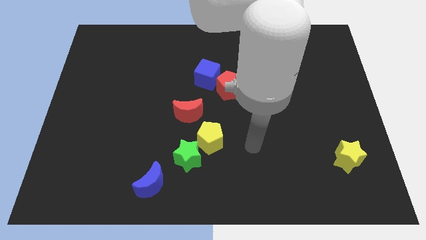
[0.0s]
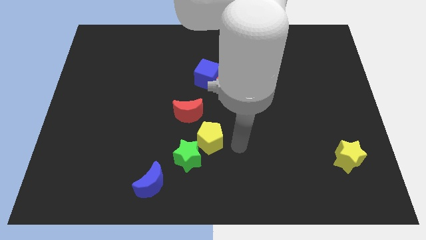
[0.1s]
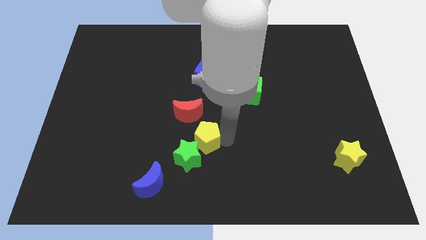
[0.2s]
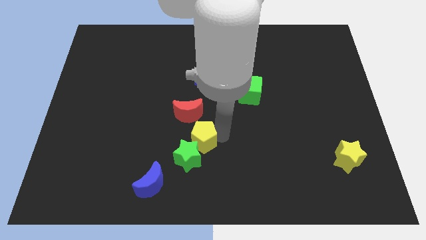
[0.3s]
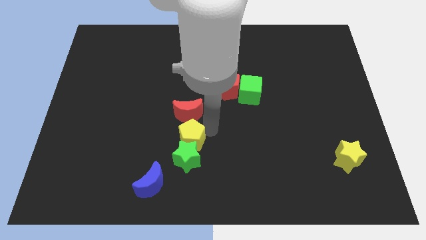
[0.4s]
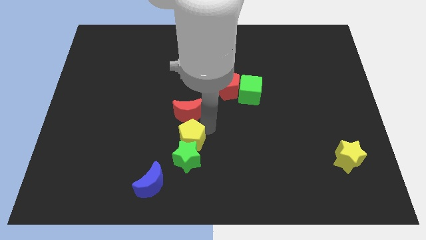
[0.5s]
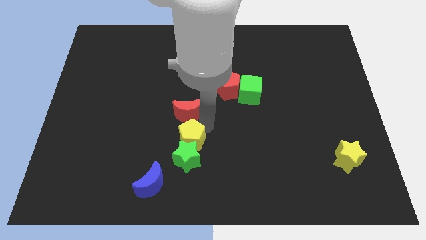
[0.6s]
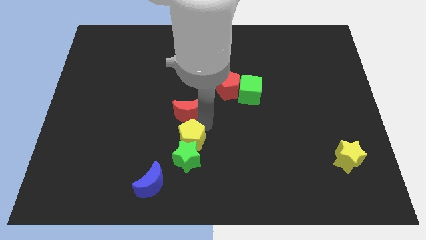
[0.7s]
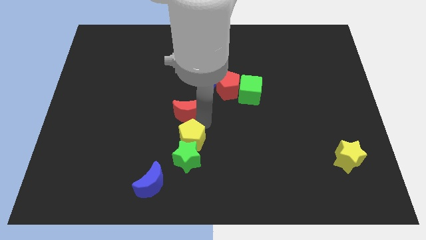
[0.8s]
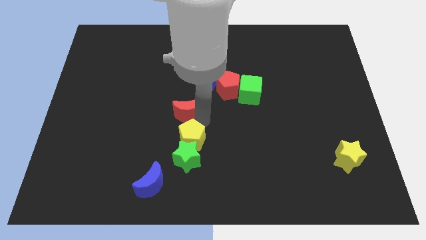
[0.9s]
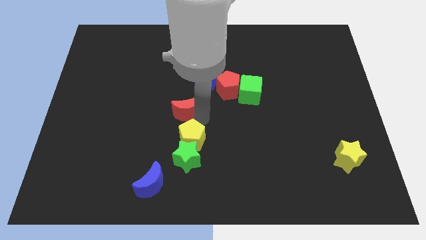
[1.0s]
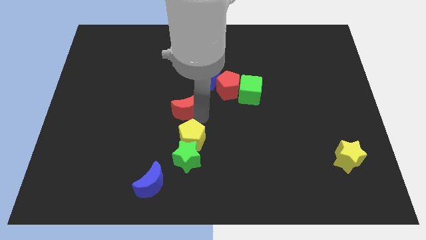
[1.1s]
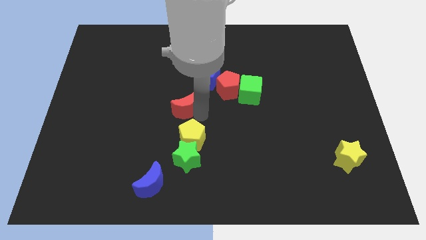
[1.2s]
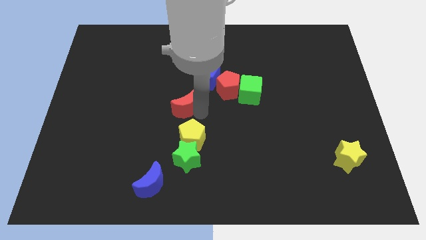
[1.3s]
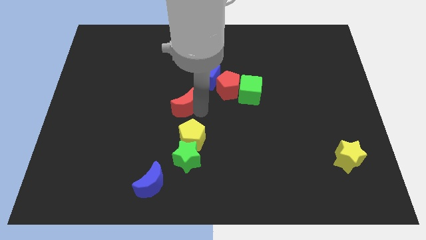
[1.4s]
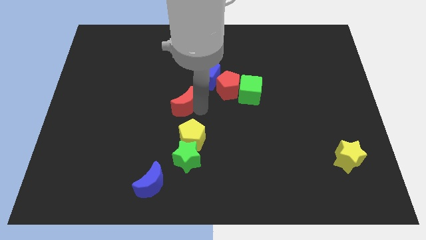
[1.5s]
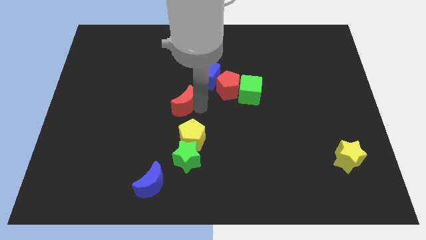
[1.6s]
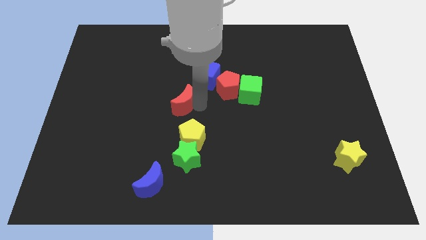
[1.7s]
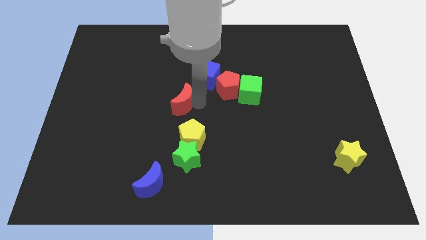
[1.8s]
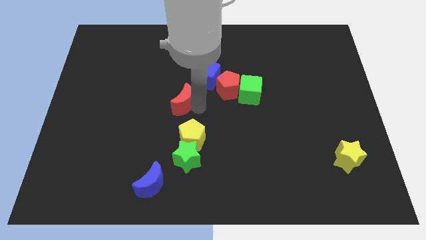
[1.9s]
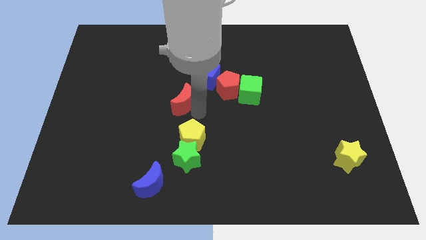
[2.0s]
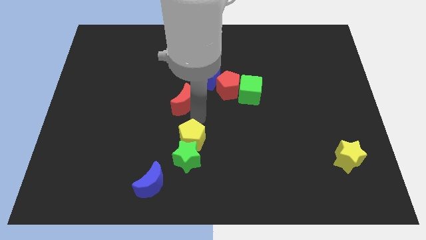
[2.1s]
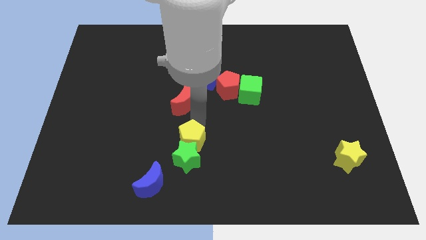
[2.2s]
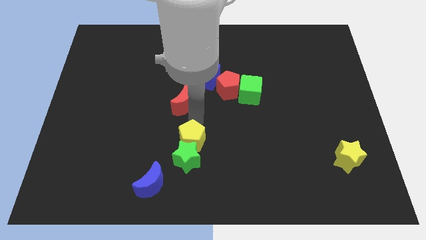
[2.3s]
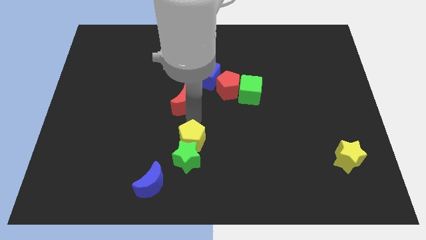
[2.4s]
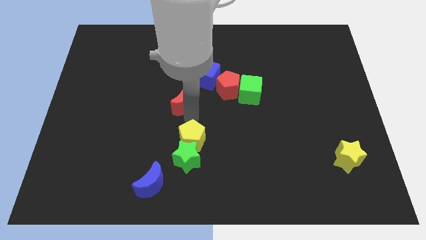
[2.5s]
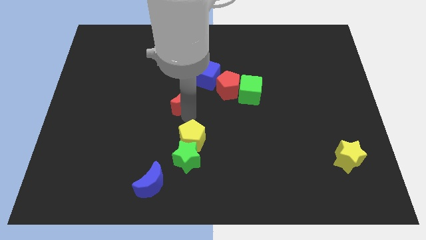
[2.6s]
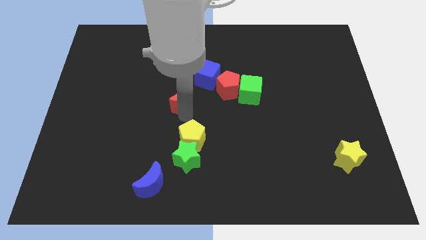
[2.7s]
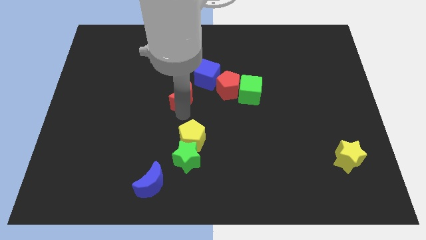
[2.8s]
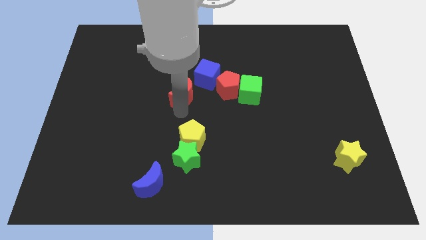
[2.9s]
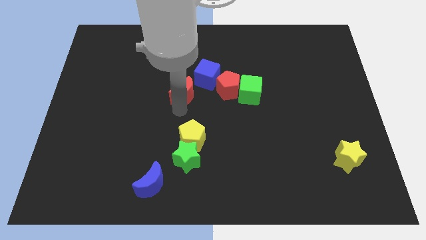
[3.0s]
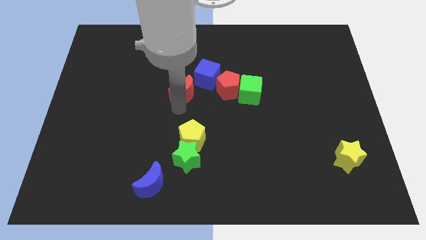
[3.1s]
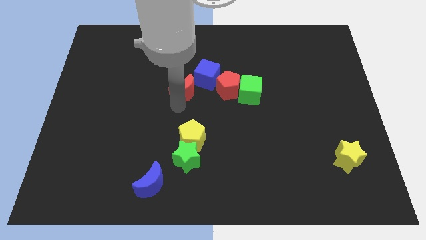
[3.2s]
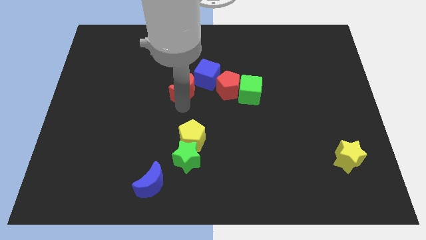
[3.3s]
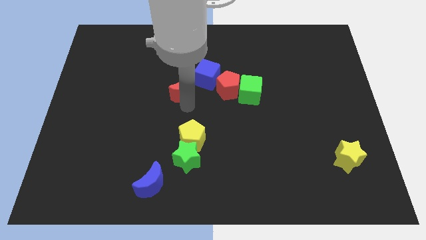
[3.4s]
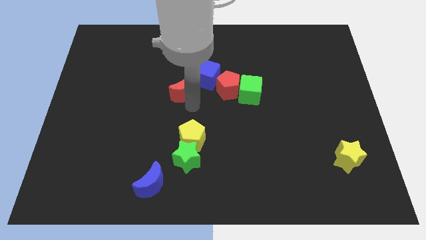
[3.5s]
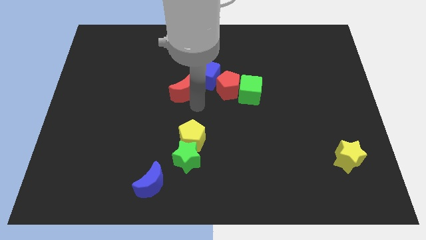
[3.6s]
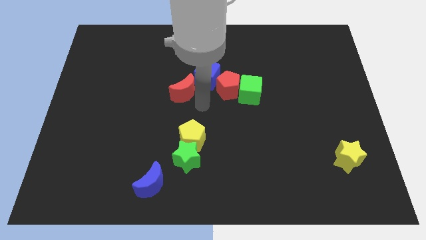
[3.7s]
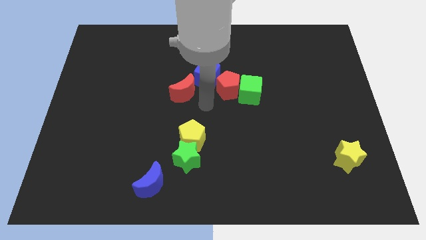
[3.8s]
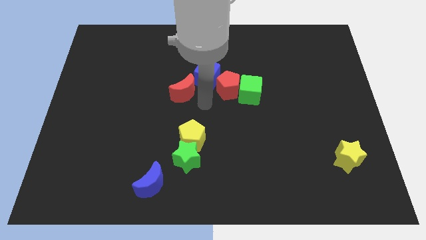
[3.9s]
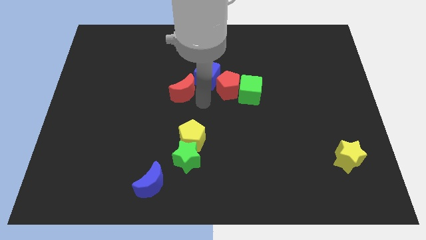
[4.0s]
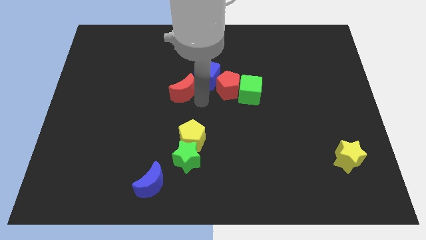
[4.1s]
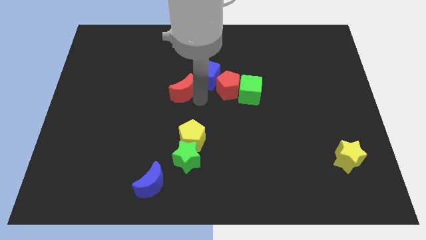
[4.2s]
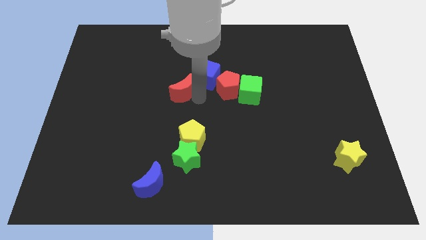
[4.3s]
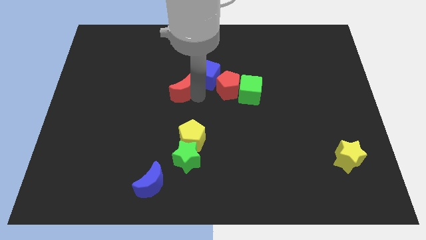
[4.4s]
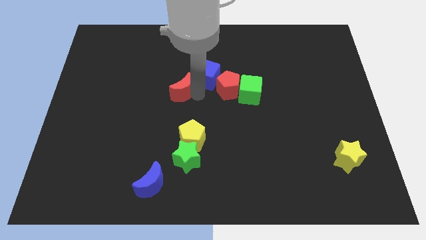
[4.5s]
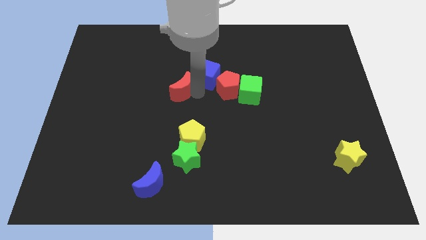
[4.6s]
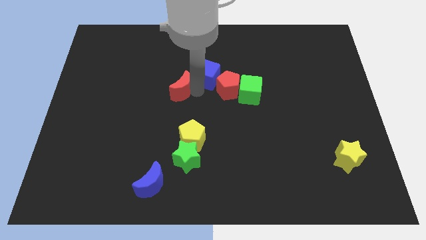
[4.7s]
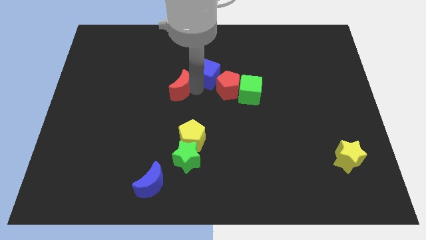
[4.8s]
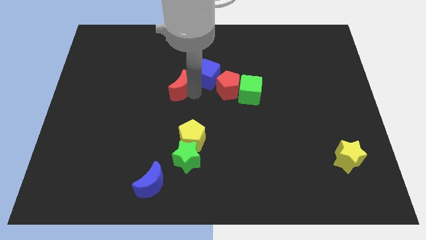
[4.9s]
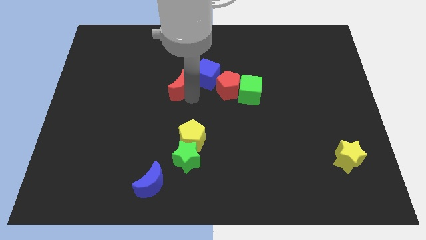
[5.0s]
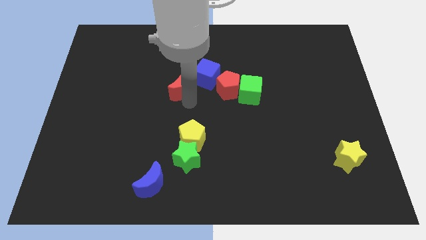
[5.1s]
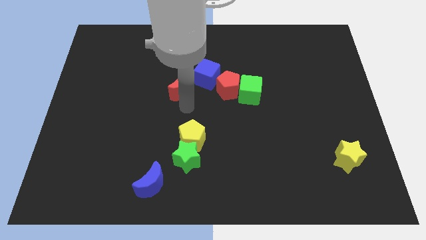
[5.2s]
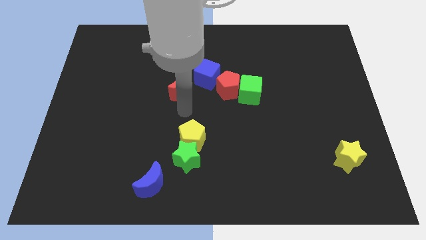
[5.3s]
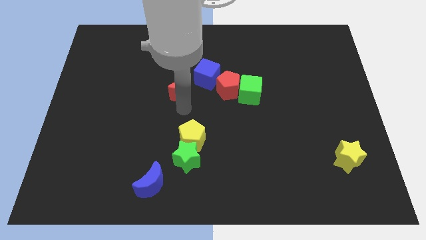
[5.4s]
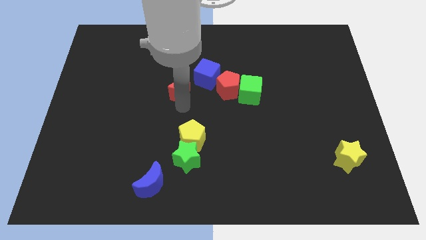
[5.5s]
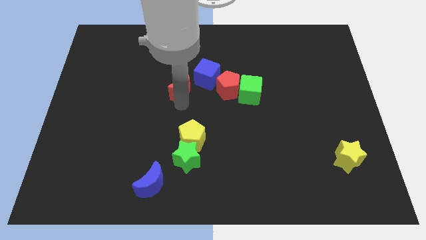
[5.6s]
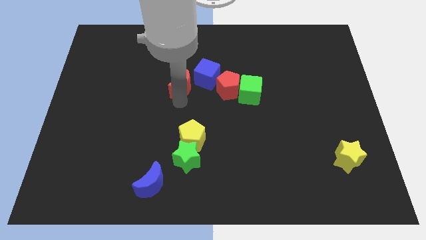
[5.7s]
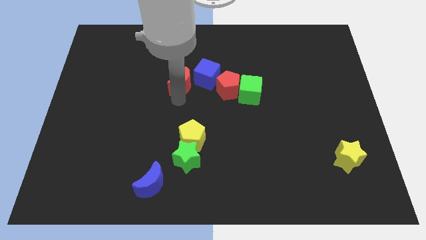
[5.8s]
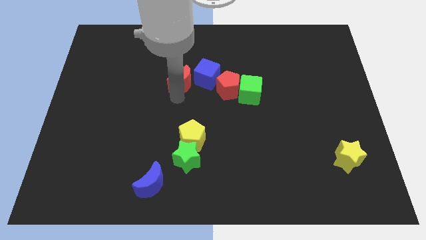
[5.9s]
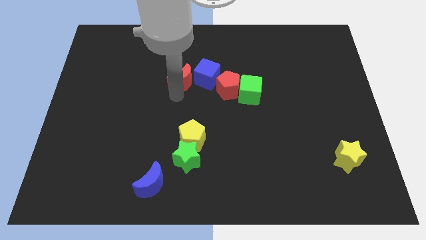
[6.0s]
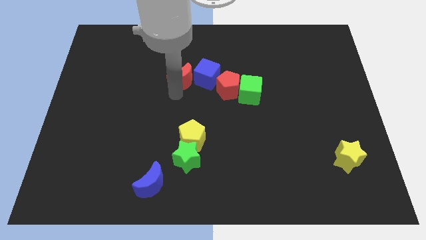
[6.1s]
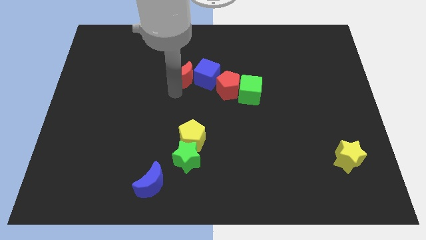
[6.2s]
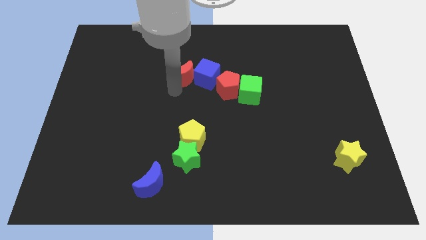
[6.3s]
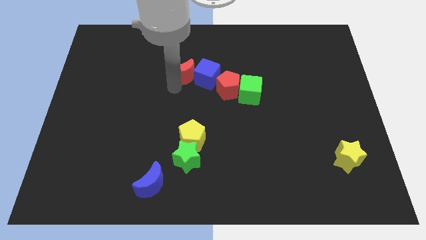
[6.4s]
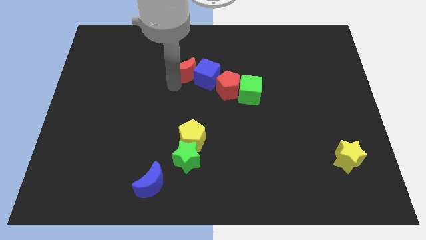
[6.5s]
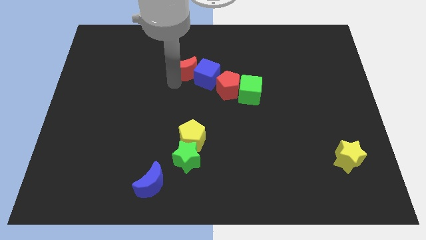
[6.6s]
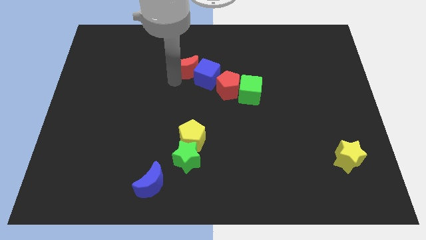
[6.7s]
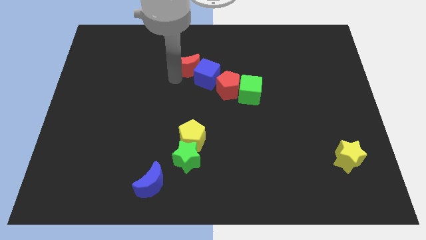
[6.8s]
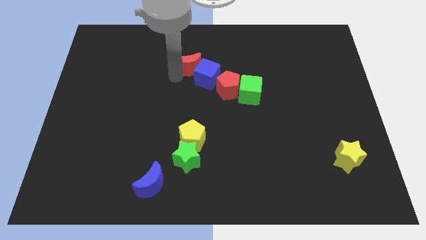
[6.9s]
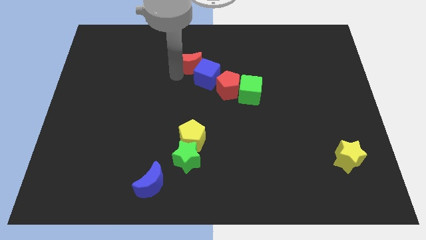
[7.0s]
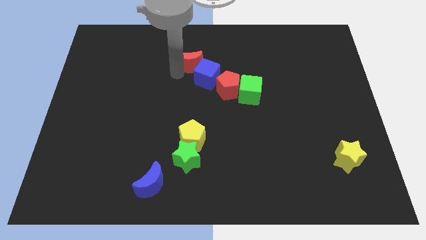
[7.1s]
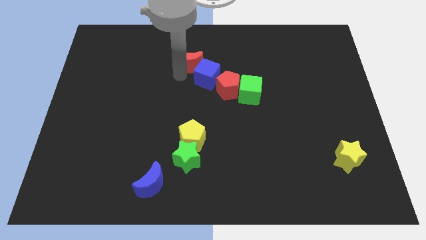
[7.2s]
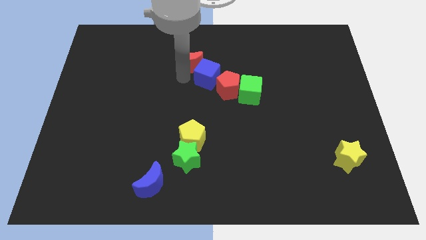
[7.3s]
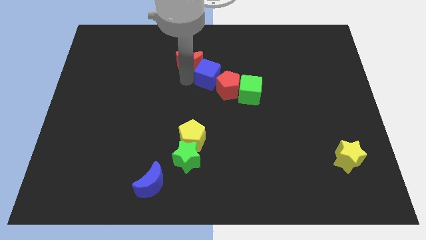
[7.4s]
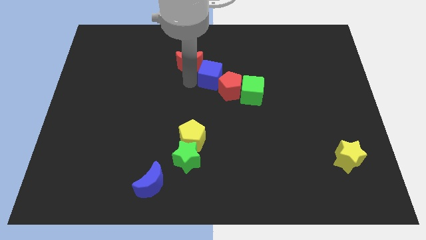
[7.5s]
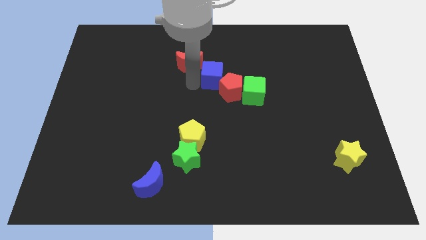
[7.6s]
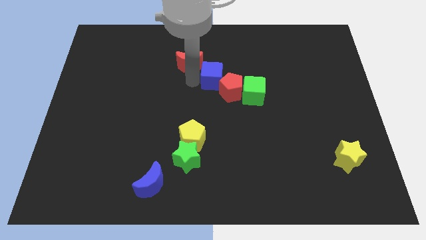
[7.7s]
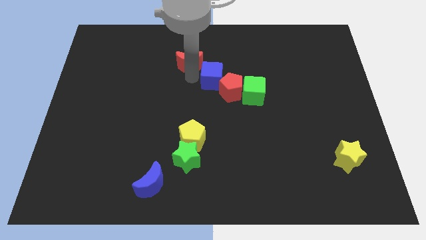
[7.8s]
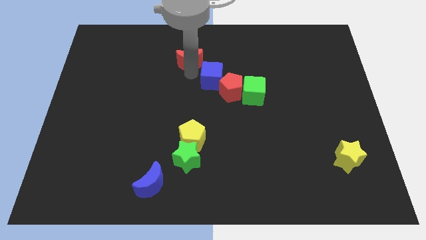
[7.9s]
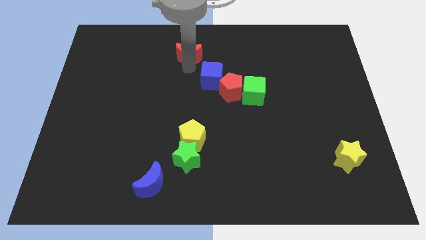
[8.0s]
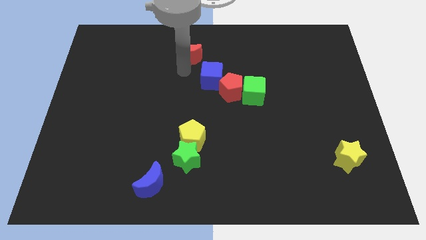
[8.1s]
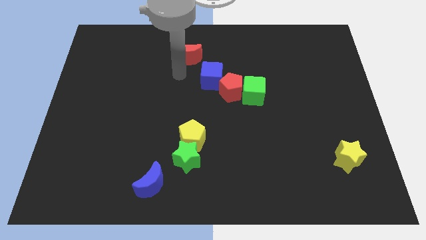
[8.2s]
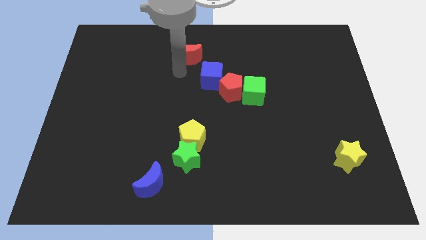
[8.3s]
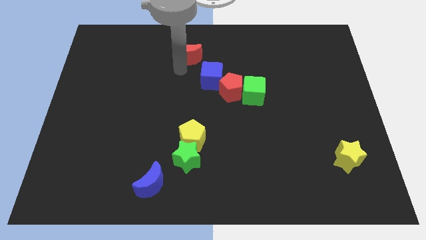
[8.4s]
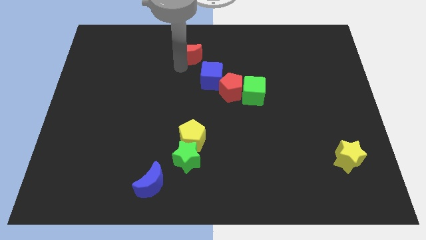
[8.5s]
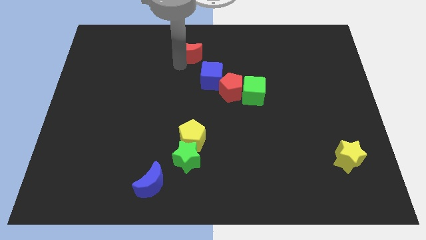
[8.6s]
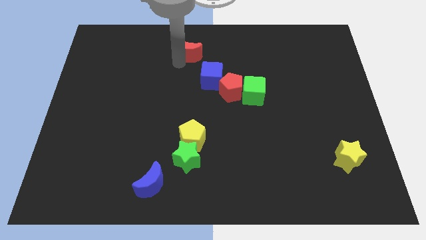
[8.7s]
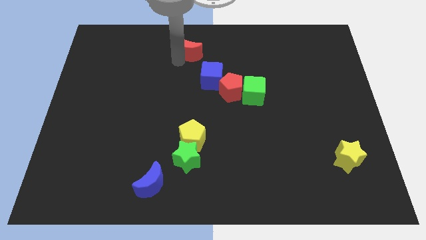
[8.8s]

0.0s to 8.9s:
slide the red moon to the top
